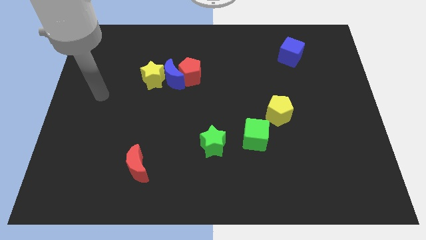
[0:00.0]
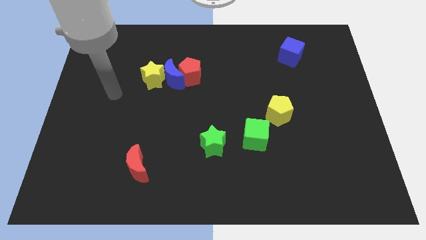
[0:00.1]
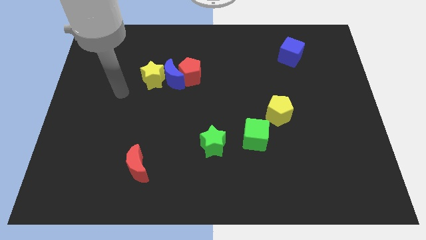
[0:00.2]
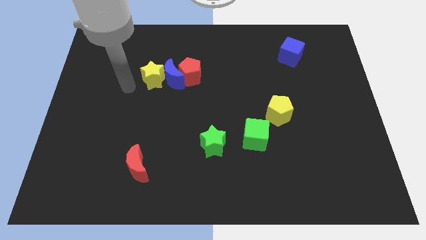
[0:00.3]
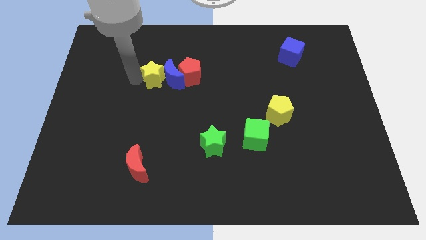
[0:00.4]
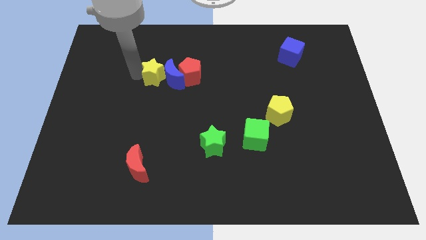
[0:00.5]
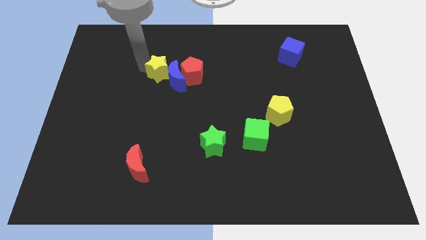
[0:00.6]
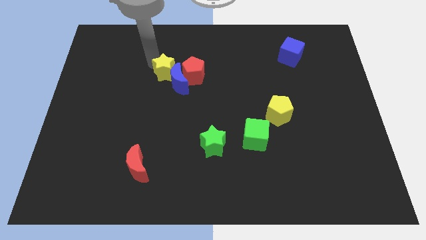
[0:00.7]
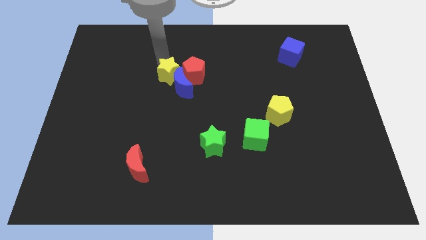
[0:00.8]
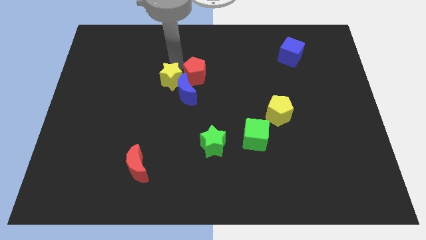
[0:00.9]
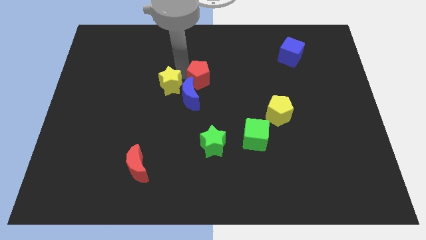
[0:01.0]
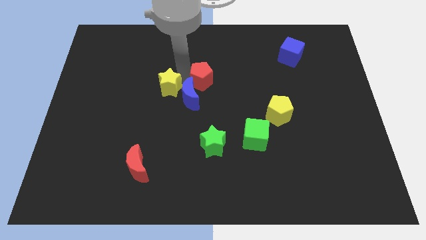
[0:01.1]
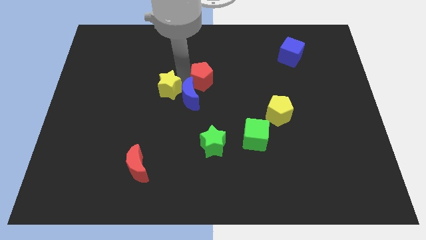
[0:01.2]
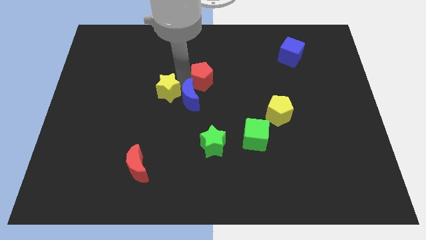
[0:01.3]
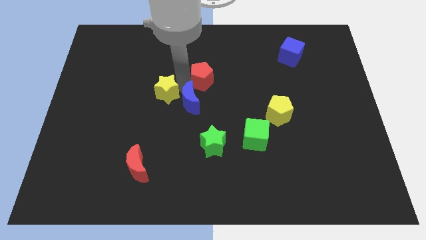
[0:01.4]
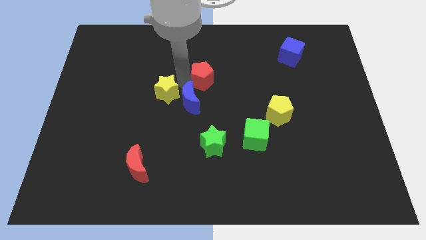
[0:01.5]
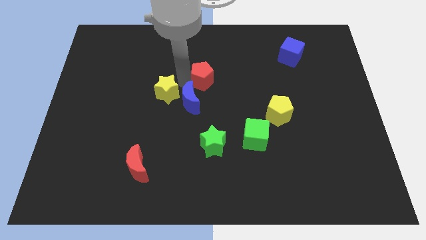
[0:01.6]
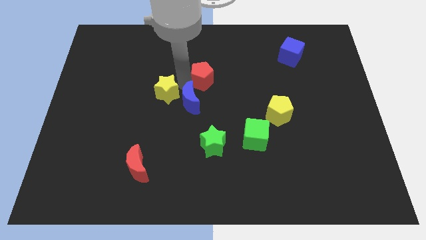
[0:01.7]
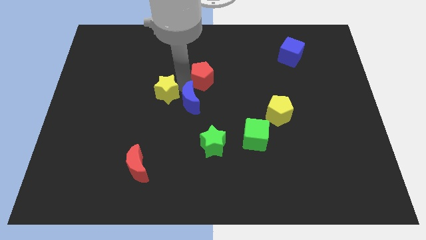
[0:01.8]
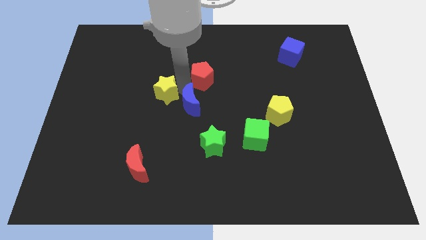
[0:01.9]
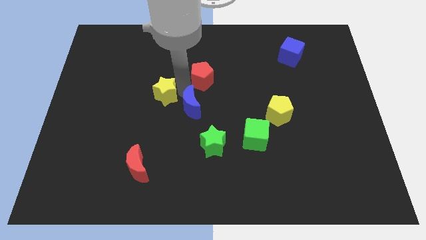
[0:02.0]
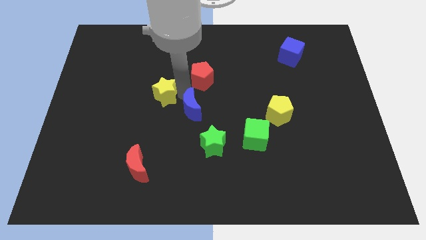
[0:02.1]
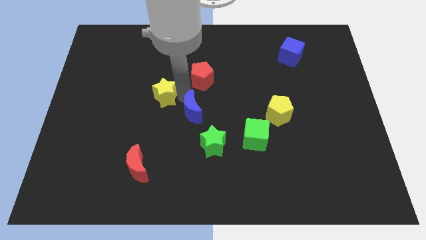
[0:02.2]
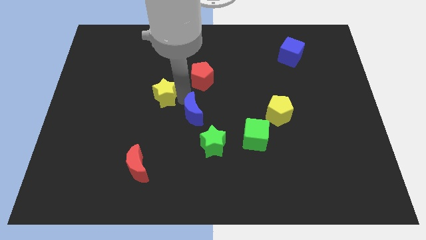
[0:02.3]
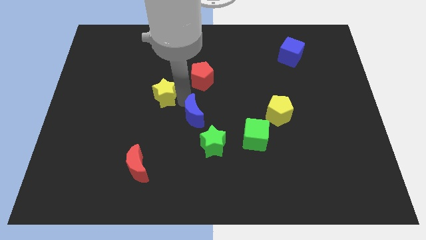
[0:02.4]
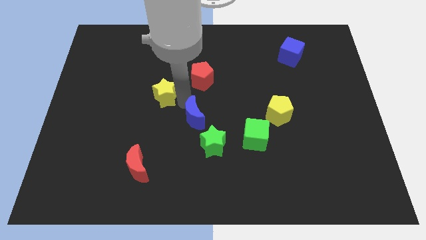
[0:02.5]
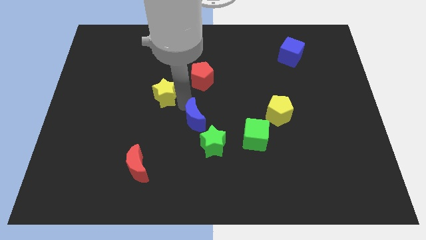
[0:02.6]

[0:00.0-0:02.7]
move the blue moon away from the yellow star and red pentagon

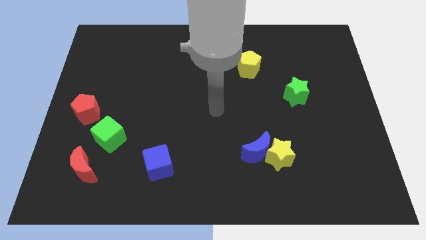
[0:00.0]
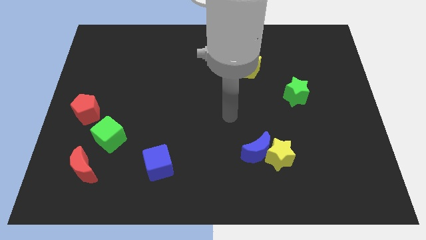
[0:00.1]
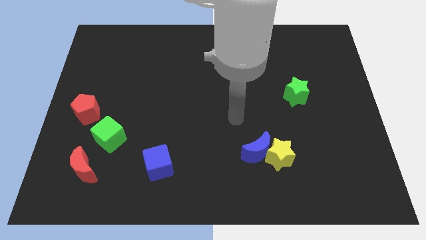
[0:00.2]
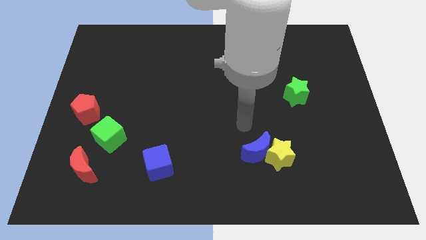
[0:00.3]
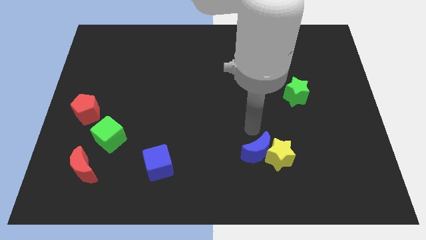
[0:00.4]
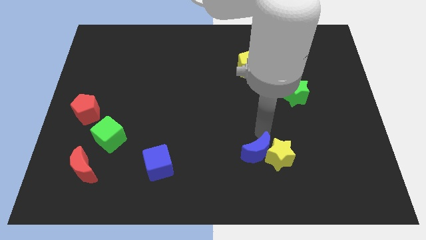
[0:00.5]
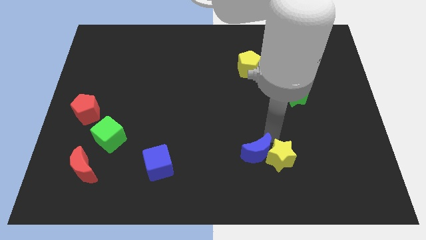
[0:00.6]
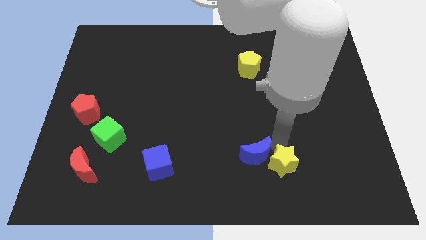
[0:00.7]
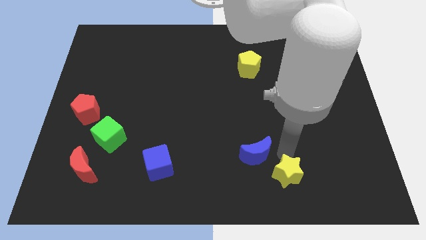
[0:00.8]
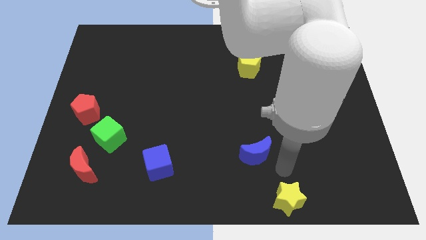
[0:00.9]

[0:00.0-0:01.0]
separate the blue moon from the yellow star

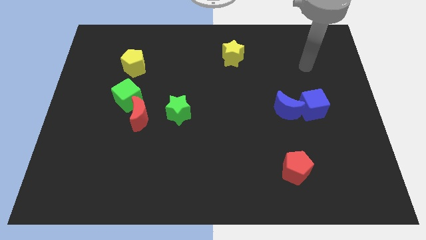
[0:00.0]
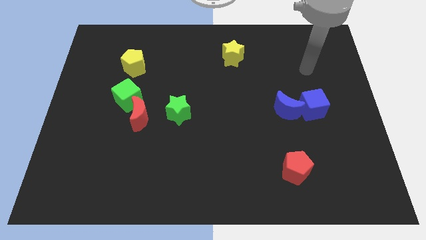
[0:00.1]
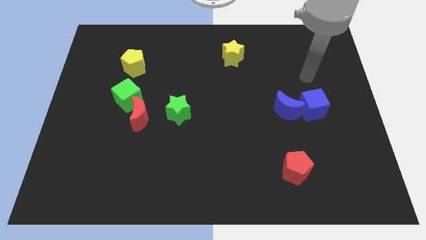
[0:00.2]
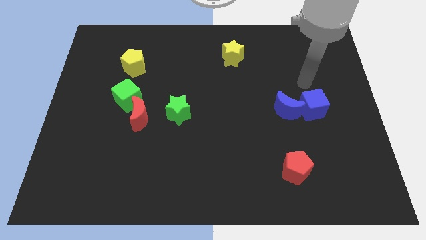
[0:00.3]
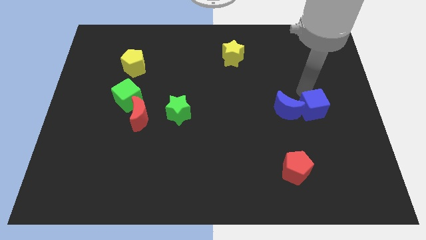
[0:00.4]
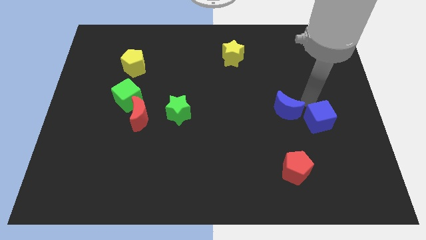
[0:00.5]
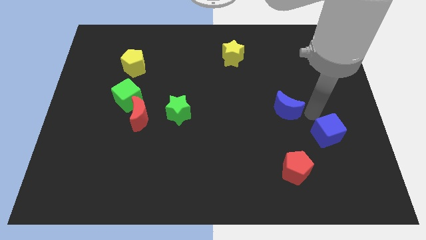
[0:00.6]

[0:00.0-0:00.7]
move the blue moon away from the blue cube

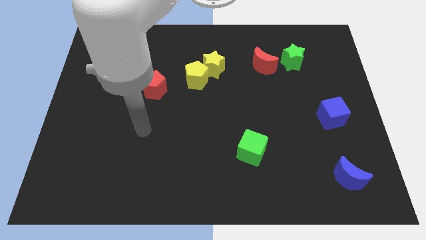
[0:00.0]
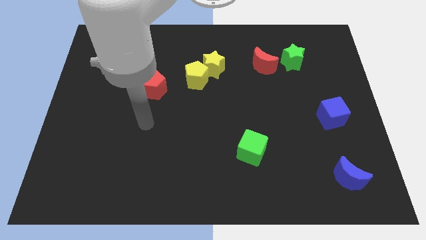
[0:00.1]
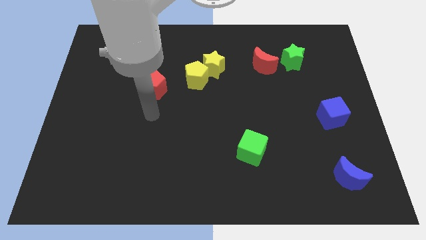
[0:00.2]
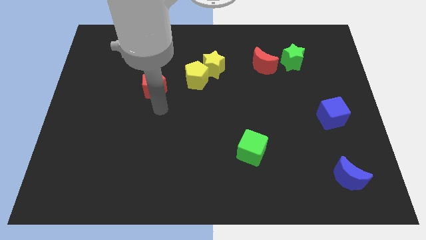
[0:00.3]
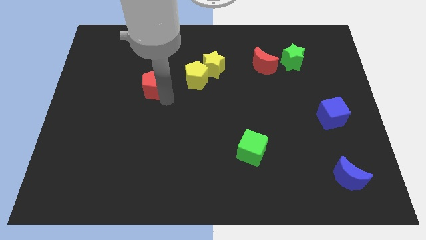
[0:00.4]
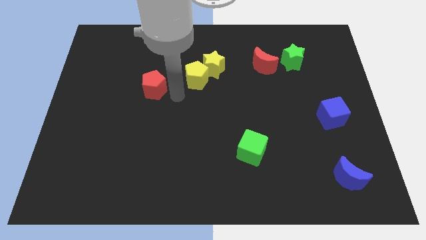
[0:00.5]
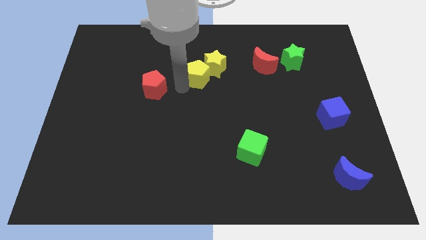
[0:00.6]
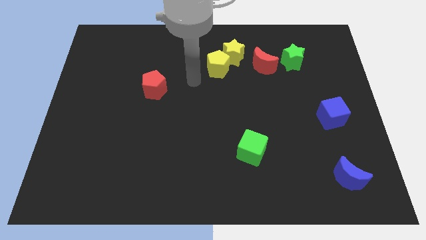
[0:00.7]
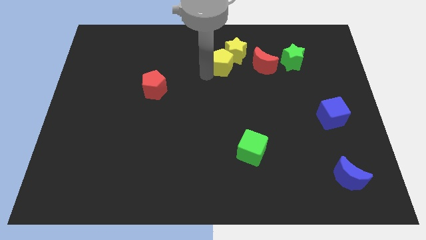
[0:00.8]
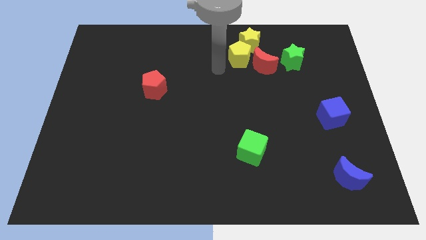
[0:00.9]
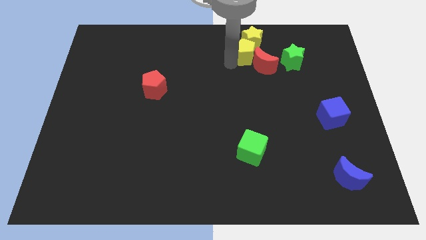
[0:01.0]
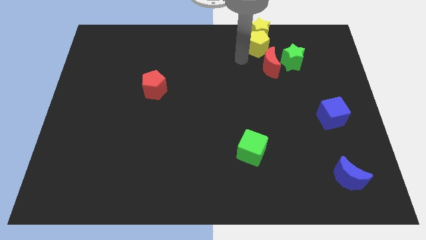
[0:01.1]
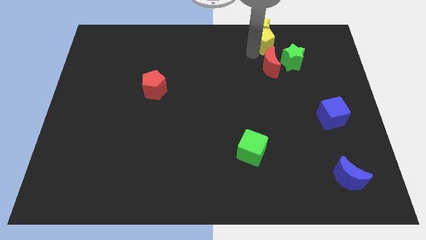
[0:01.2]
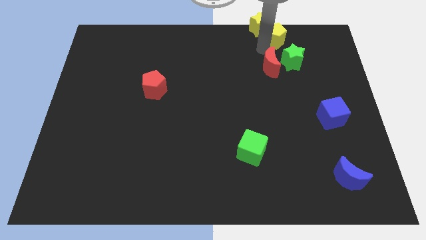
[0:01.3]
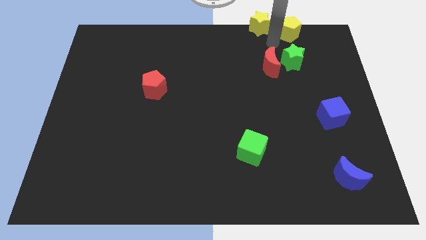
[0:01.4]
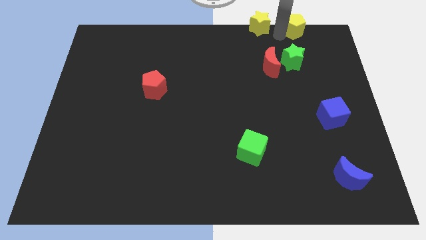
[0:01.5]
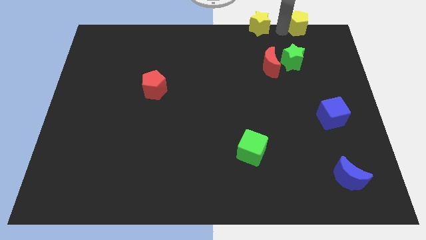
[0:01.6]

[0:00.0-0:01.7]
move the yellow star away from the yellow pentagon

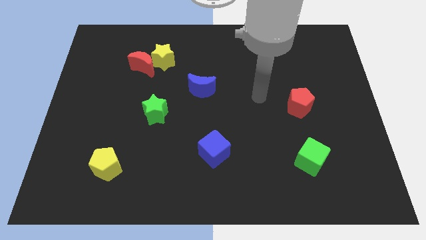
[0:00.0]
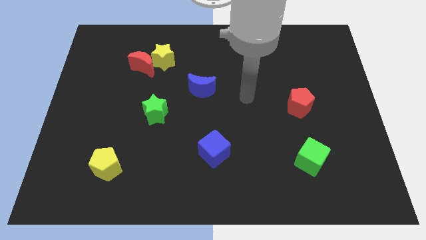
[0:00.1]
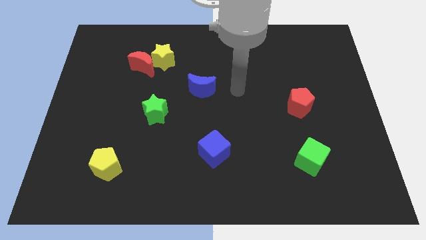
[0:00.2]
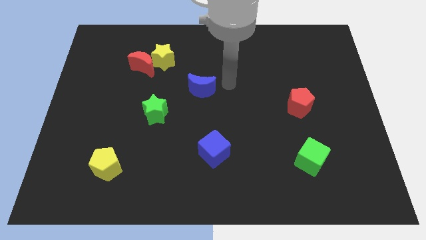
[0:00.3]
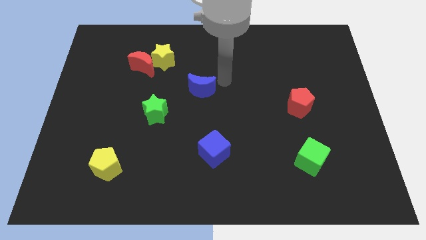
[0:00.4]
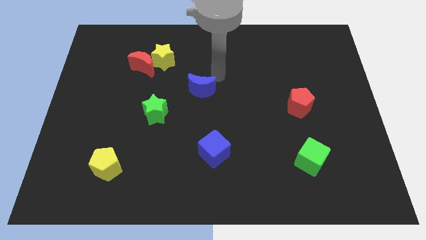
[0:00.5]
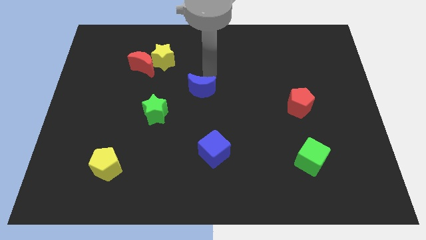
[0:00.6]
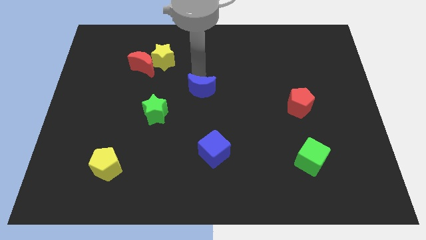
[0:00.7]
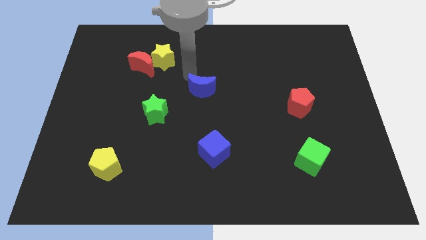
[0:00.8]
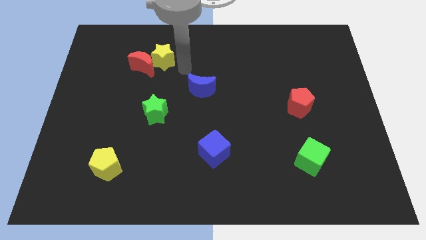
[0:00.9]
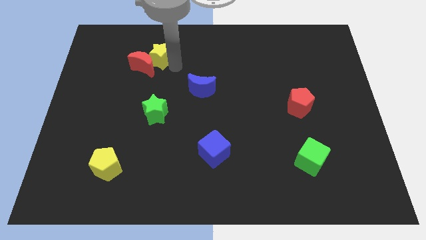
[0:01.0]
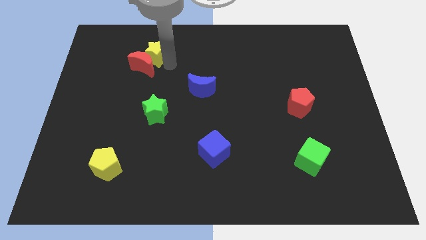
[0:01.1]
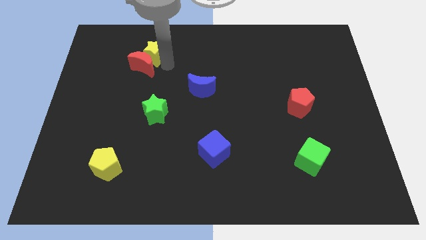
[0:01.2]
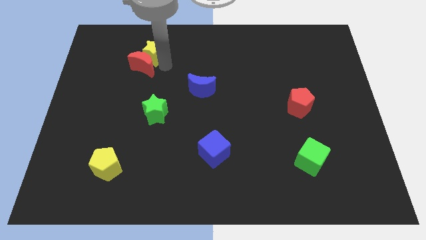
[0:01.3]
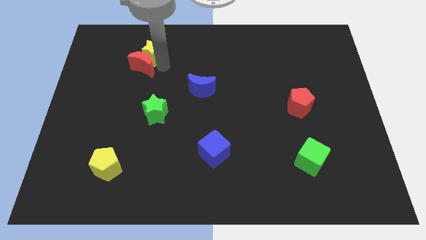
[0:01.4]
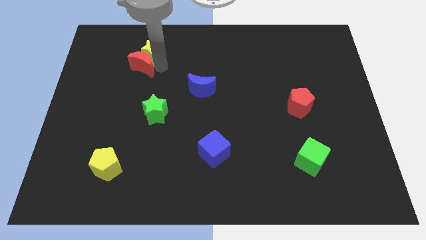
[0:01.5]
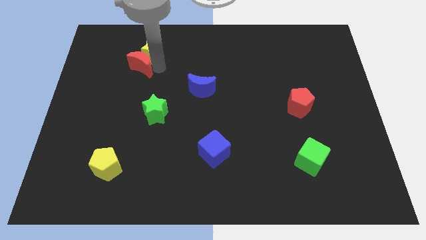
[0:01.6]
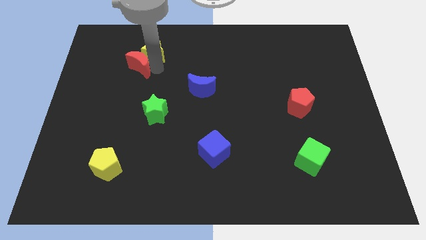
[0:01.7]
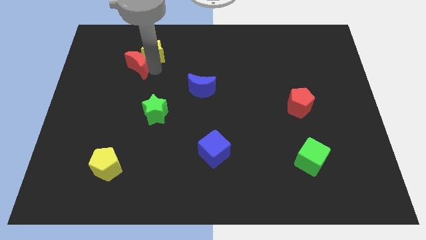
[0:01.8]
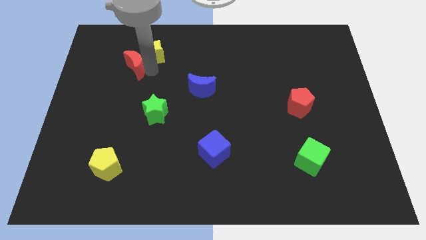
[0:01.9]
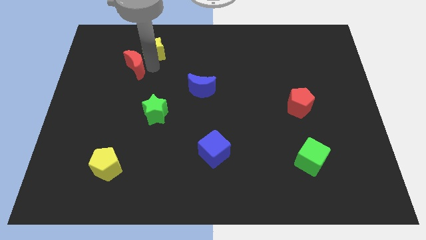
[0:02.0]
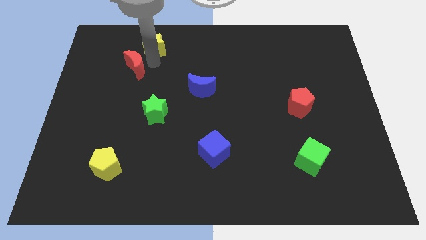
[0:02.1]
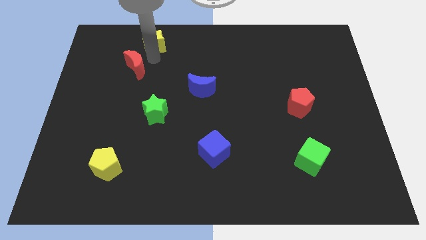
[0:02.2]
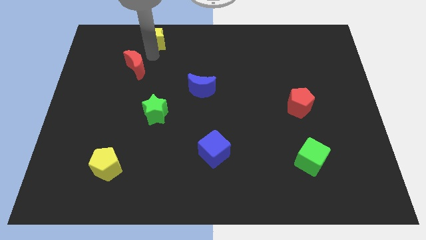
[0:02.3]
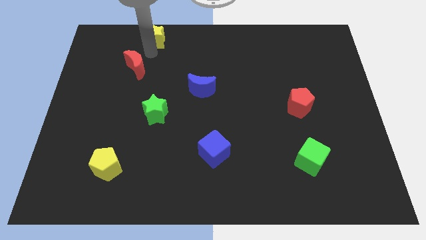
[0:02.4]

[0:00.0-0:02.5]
move the red moon away from the yellow star

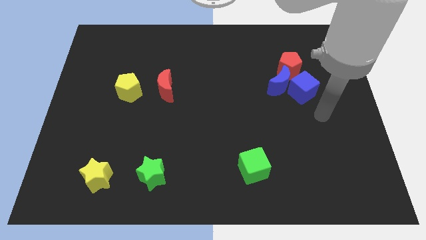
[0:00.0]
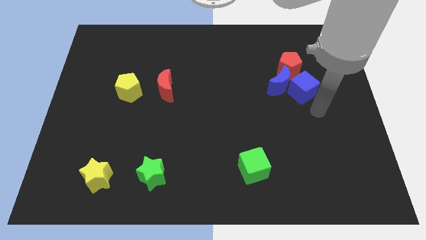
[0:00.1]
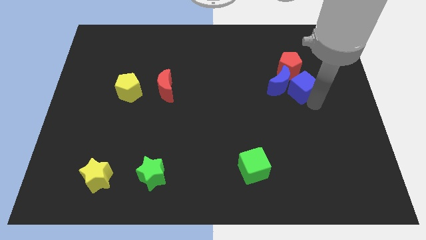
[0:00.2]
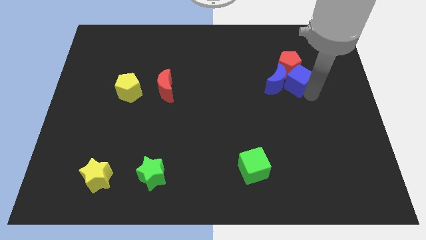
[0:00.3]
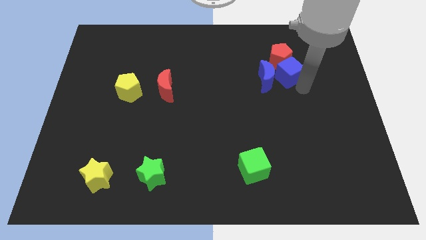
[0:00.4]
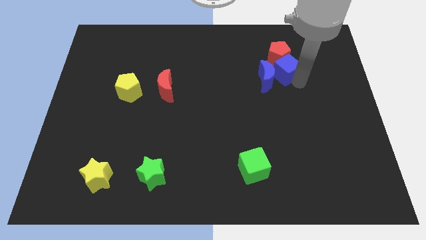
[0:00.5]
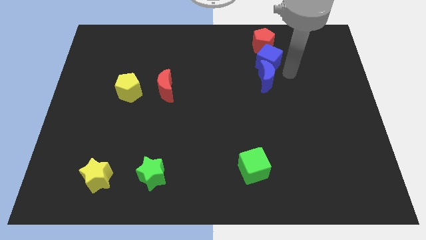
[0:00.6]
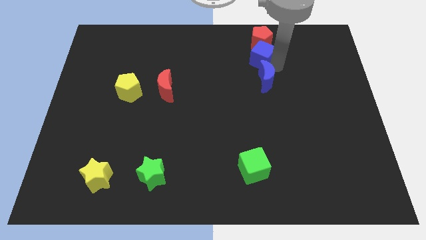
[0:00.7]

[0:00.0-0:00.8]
move the blue moon away from the blue cube and red pentagon
